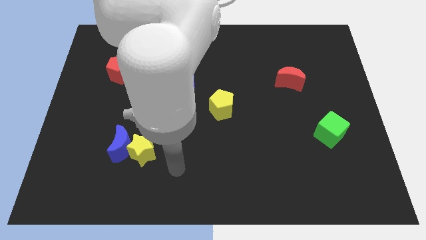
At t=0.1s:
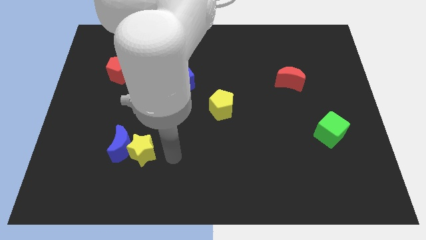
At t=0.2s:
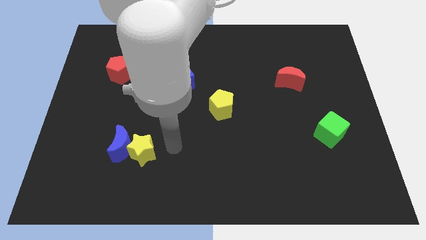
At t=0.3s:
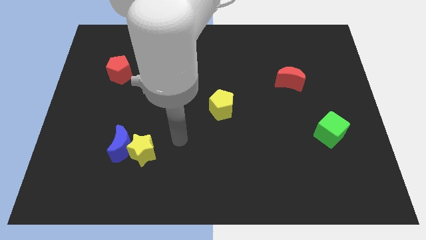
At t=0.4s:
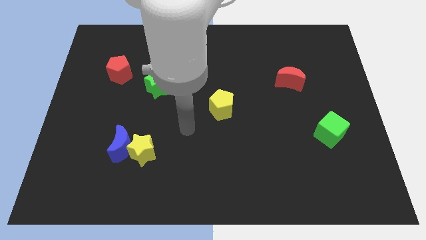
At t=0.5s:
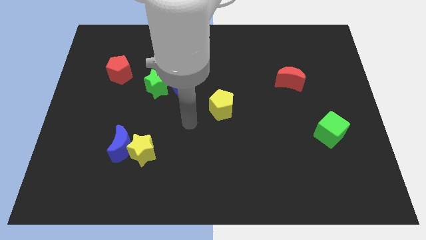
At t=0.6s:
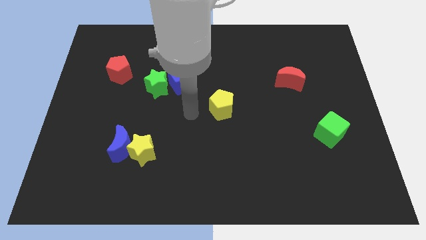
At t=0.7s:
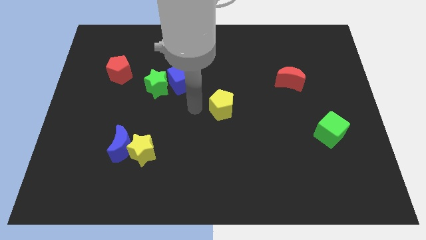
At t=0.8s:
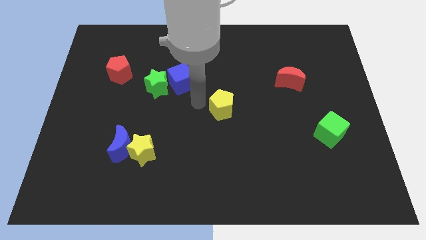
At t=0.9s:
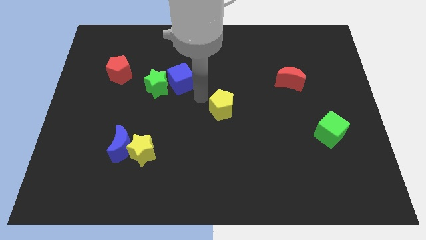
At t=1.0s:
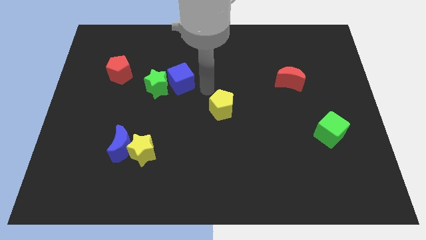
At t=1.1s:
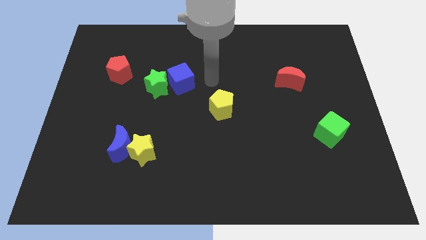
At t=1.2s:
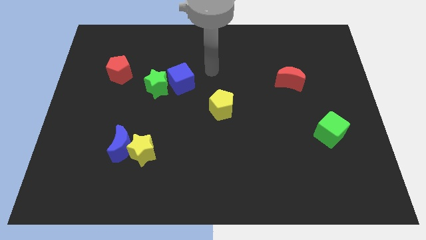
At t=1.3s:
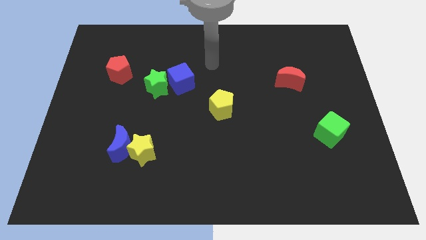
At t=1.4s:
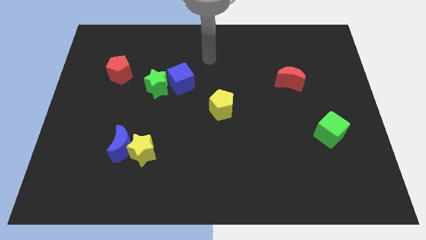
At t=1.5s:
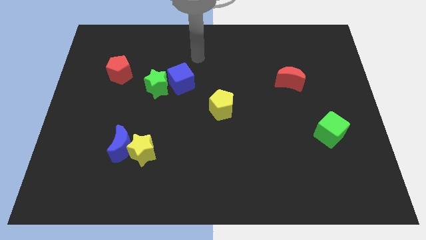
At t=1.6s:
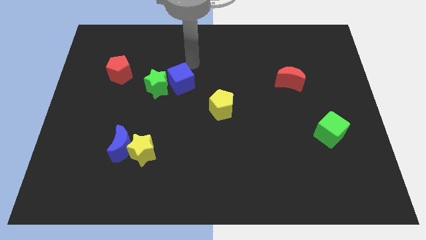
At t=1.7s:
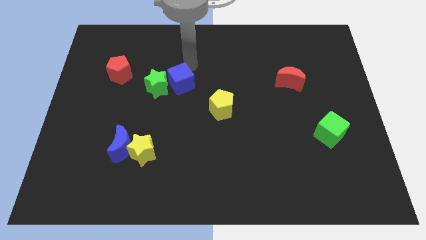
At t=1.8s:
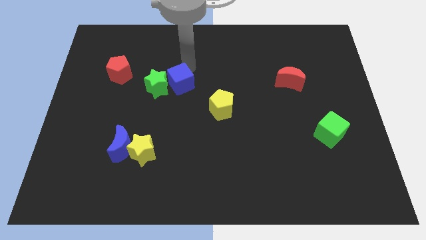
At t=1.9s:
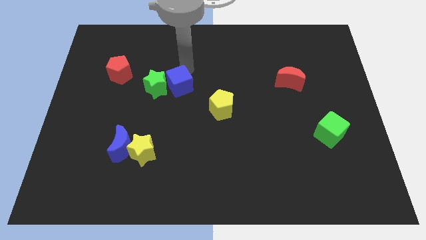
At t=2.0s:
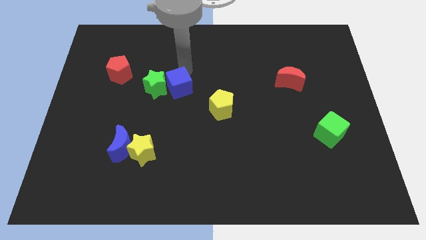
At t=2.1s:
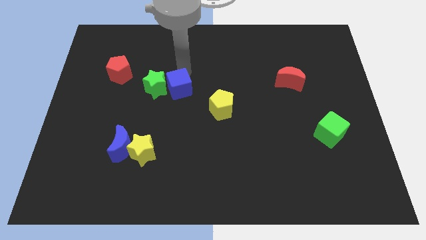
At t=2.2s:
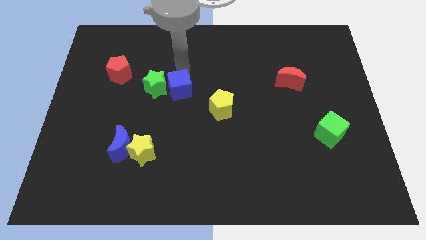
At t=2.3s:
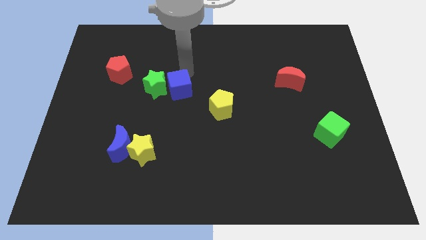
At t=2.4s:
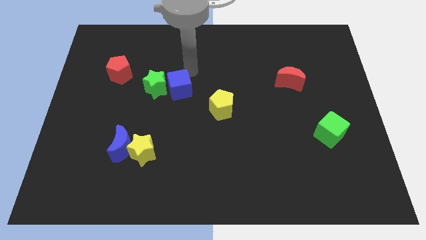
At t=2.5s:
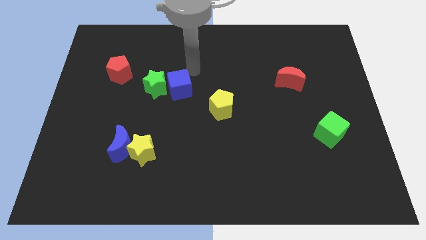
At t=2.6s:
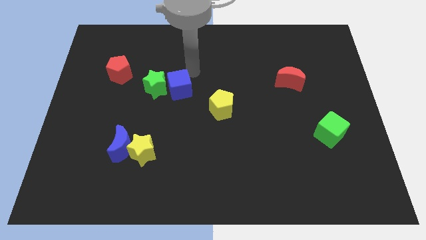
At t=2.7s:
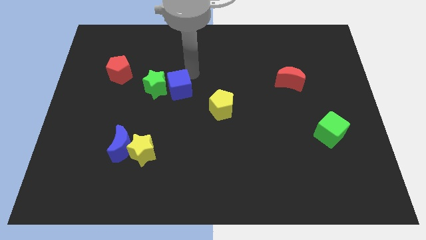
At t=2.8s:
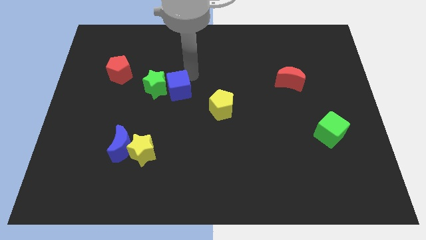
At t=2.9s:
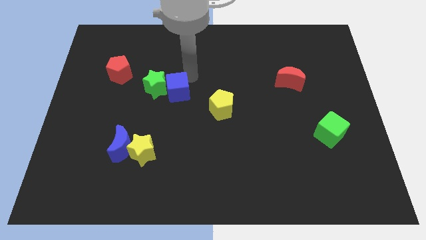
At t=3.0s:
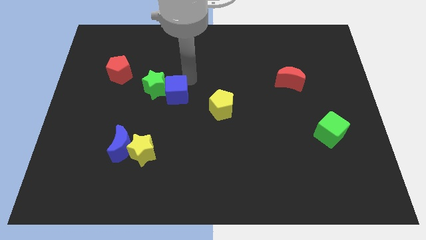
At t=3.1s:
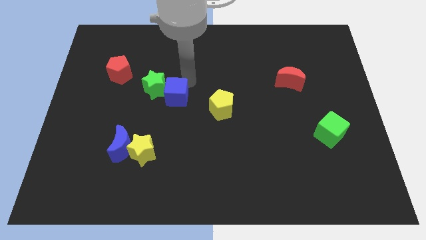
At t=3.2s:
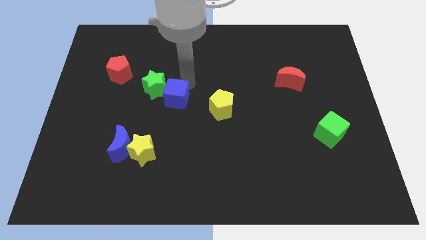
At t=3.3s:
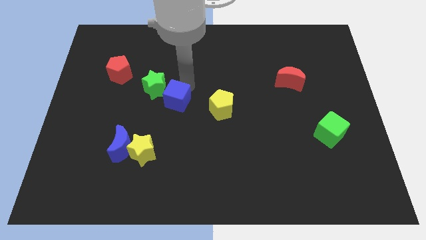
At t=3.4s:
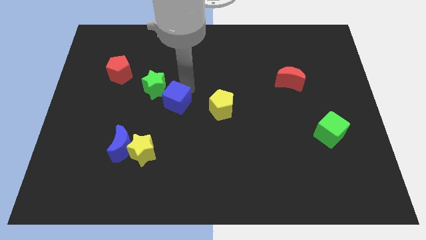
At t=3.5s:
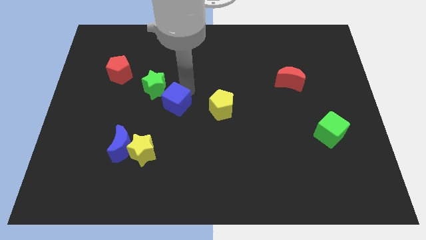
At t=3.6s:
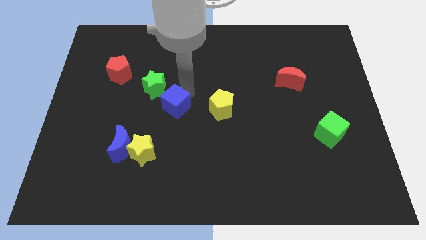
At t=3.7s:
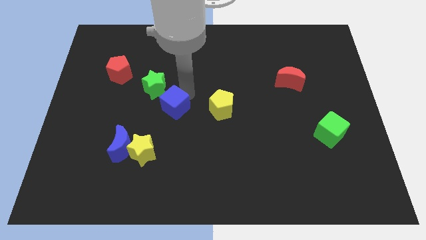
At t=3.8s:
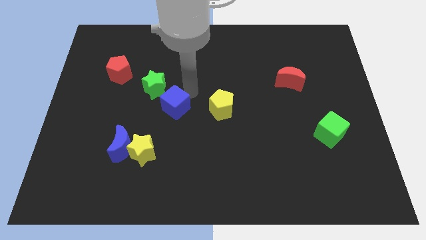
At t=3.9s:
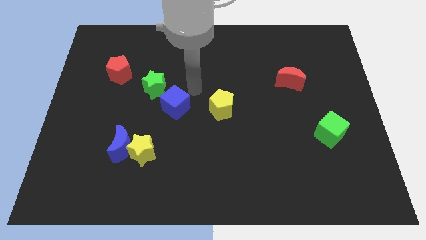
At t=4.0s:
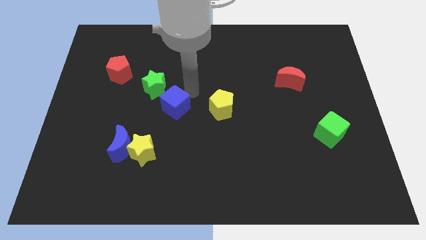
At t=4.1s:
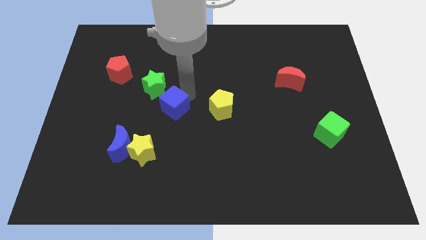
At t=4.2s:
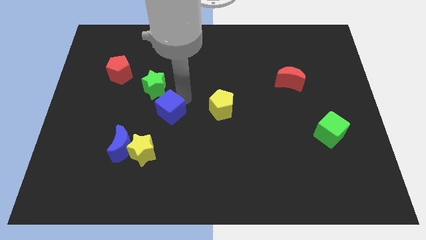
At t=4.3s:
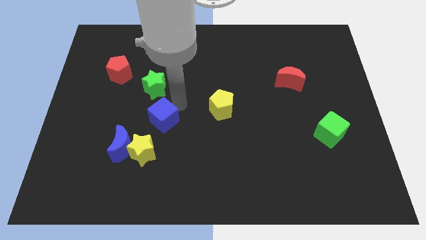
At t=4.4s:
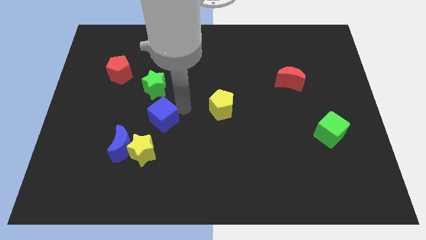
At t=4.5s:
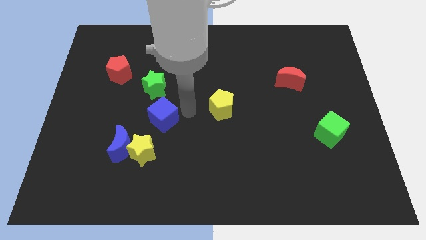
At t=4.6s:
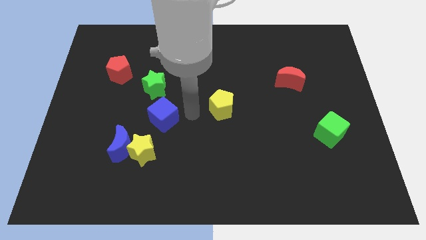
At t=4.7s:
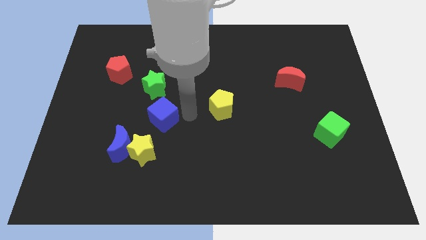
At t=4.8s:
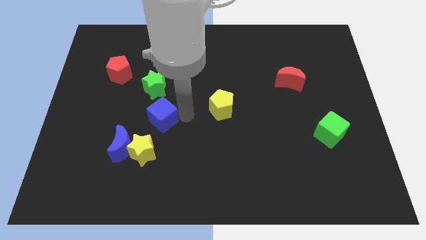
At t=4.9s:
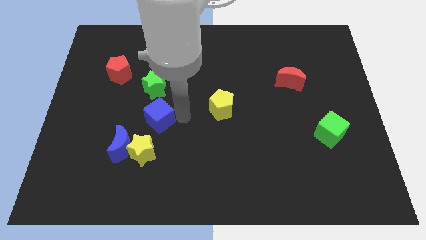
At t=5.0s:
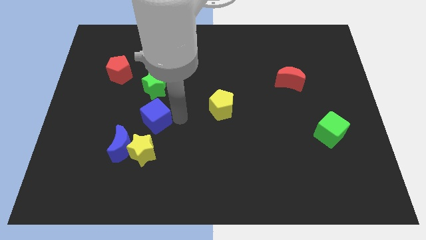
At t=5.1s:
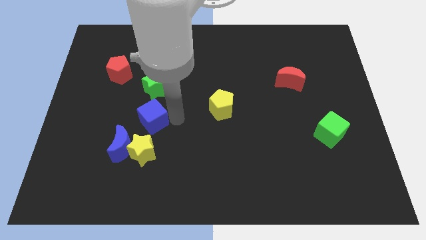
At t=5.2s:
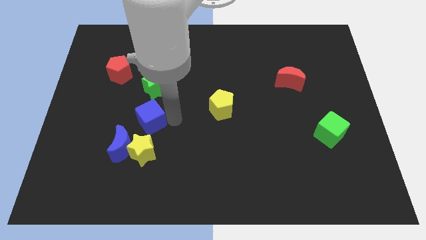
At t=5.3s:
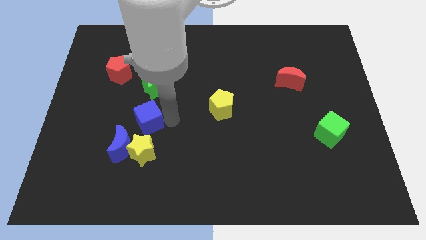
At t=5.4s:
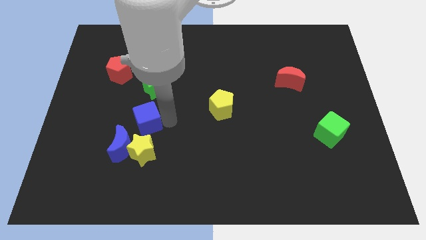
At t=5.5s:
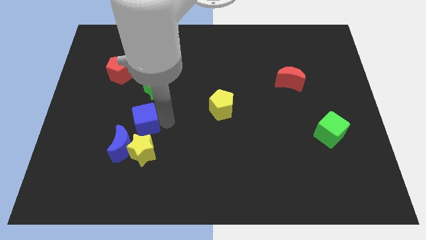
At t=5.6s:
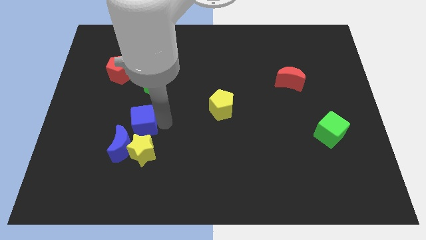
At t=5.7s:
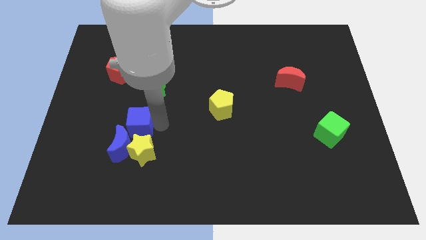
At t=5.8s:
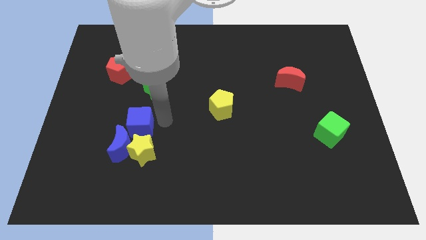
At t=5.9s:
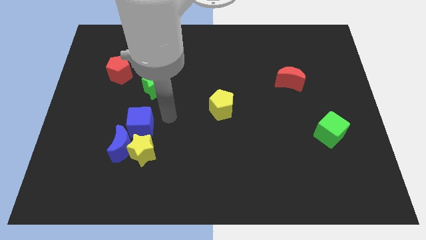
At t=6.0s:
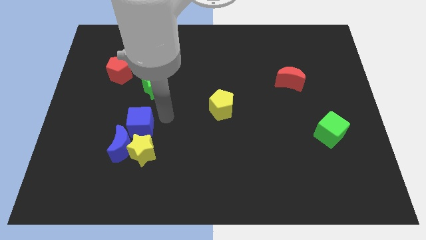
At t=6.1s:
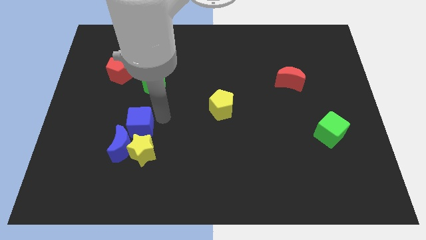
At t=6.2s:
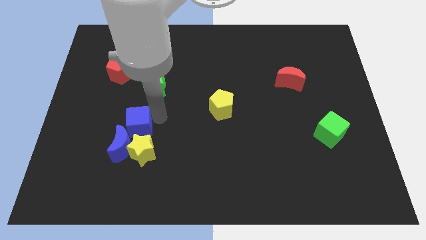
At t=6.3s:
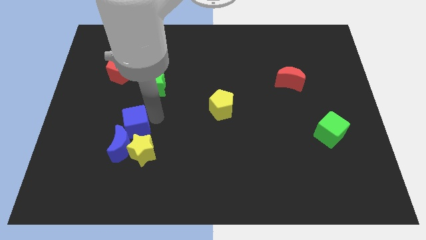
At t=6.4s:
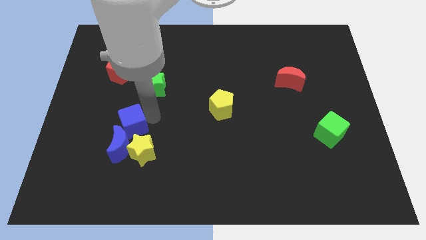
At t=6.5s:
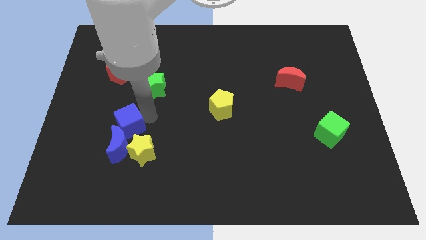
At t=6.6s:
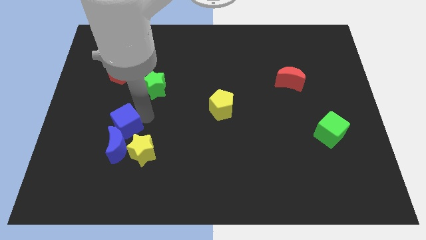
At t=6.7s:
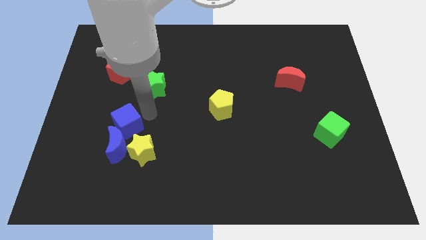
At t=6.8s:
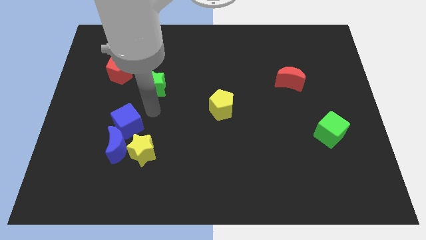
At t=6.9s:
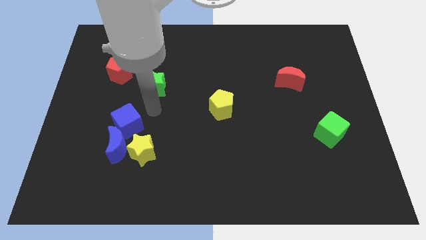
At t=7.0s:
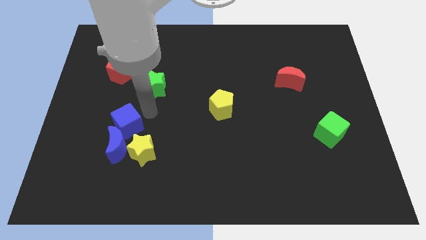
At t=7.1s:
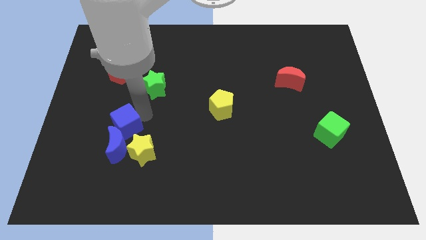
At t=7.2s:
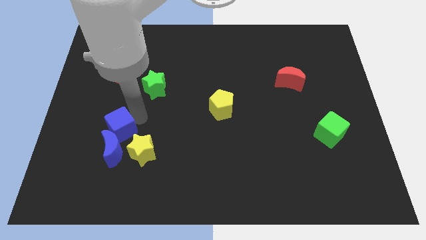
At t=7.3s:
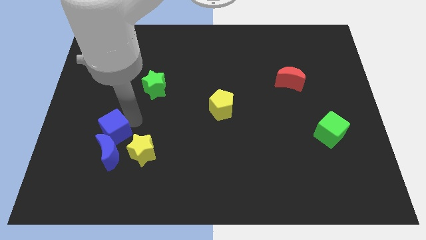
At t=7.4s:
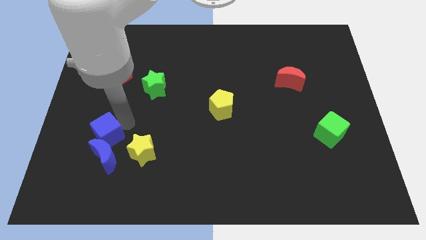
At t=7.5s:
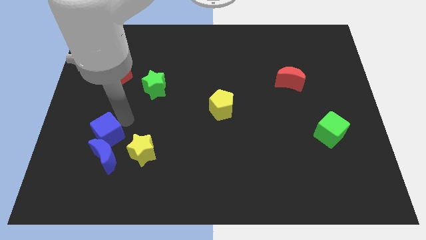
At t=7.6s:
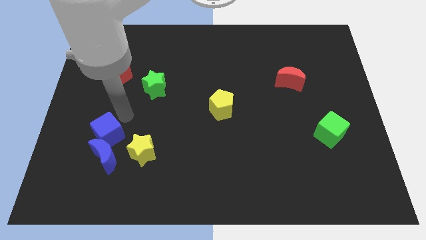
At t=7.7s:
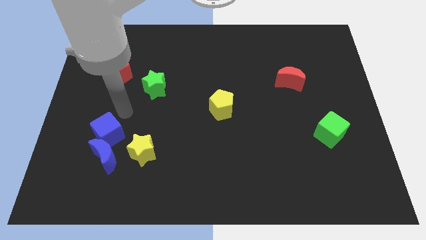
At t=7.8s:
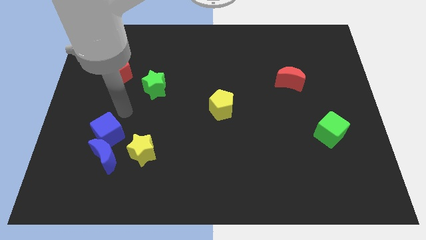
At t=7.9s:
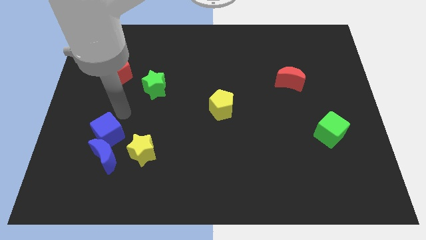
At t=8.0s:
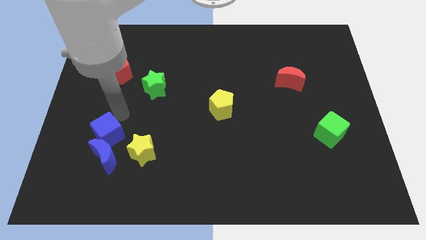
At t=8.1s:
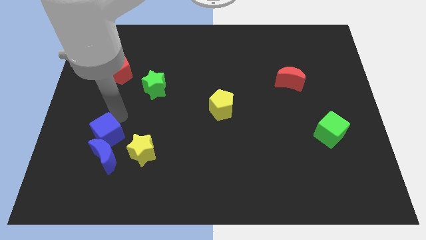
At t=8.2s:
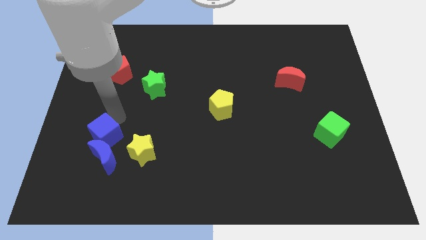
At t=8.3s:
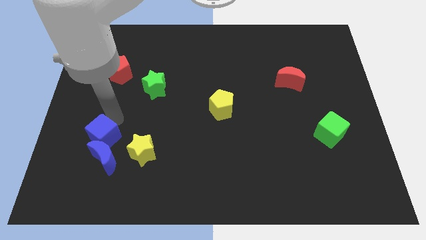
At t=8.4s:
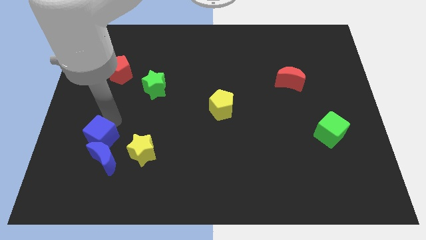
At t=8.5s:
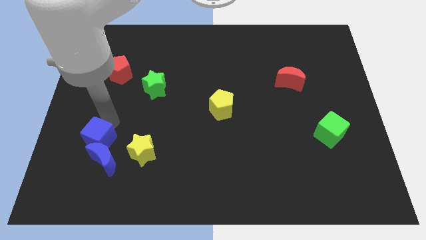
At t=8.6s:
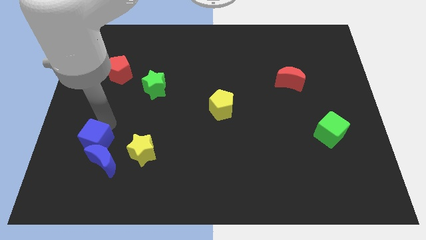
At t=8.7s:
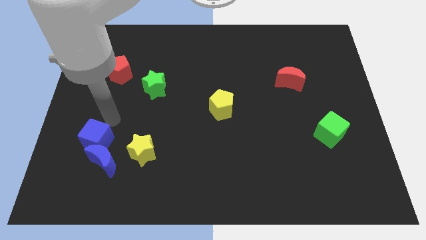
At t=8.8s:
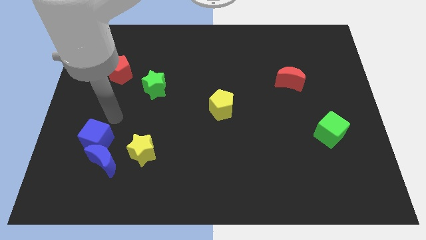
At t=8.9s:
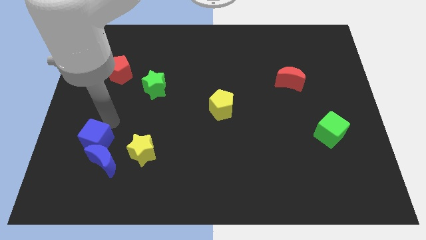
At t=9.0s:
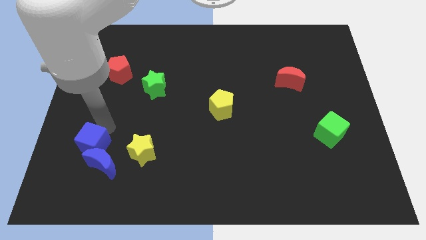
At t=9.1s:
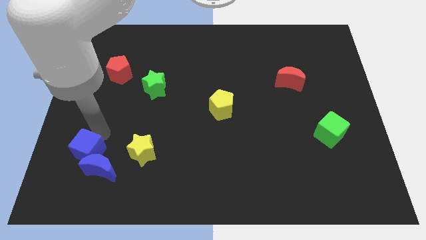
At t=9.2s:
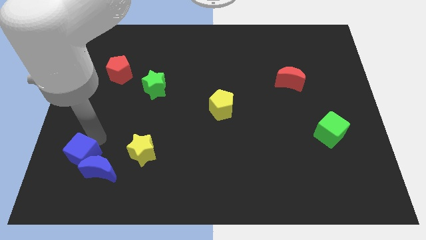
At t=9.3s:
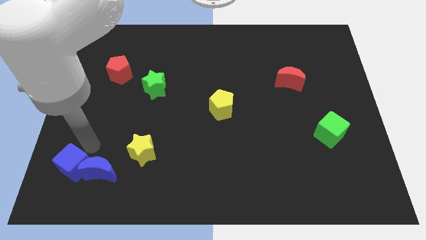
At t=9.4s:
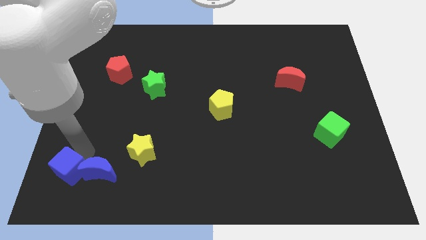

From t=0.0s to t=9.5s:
slide the blue cube to the bottom left of the board
